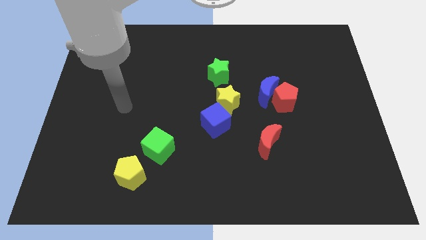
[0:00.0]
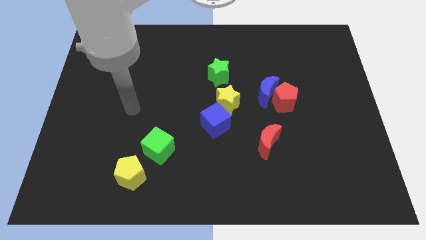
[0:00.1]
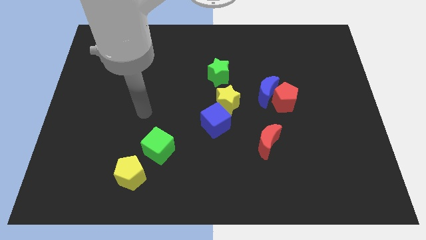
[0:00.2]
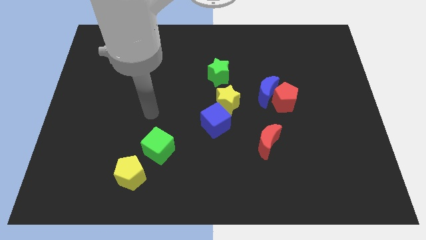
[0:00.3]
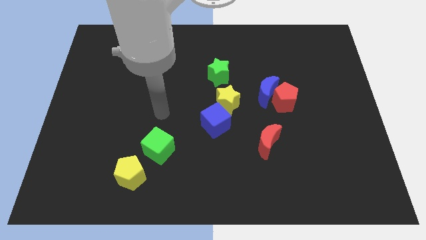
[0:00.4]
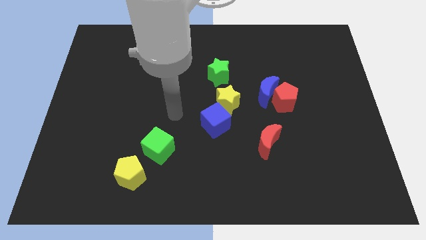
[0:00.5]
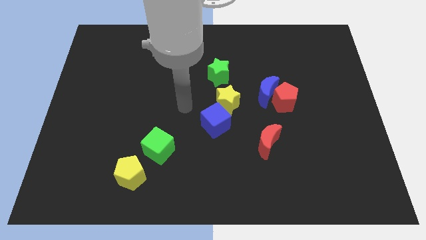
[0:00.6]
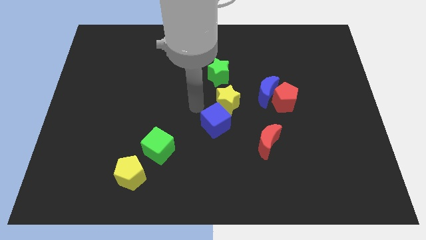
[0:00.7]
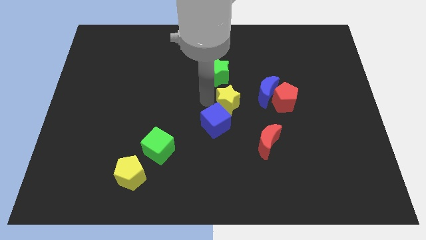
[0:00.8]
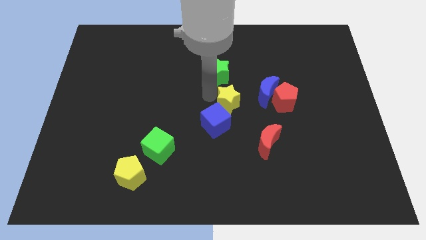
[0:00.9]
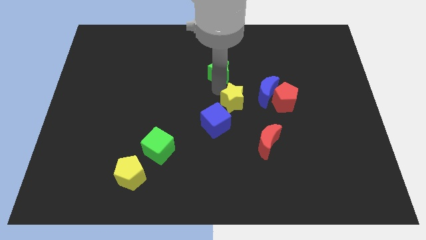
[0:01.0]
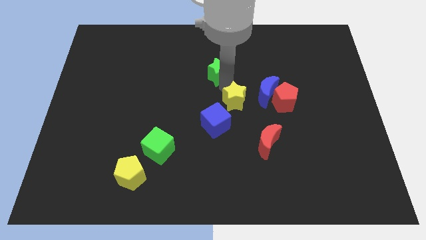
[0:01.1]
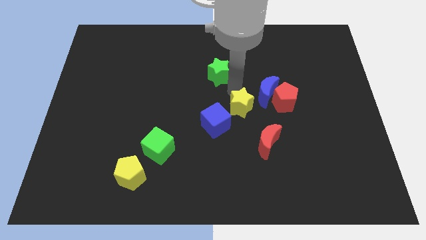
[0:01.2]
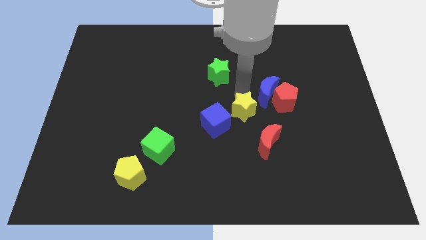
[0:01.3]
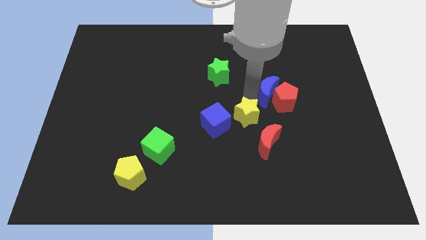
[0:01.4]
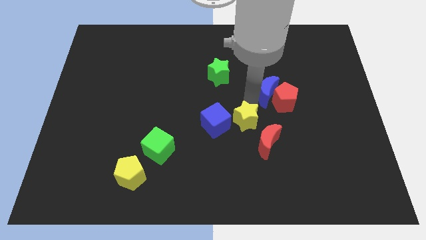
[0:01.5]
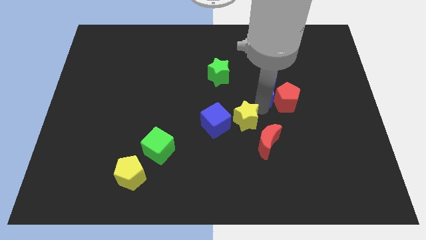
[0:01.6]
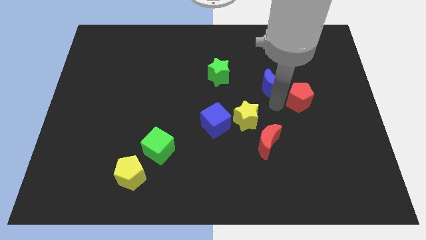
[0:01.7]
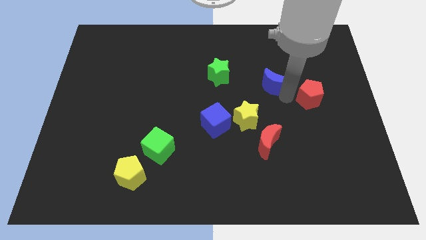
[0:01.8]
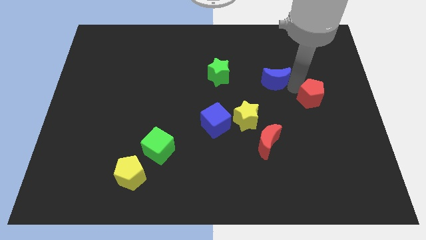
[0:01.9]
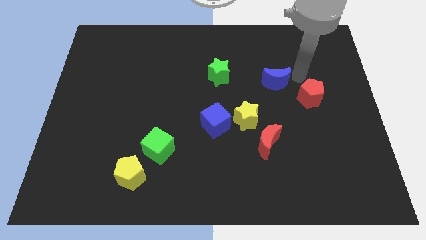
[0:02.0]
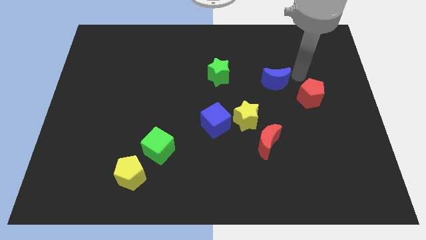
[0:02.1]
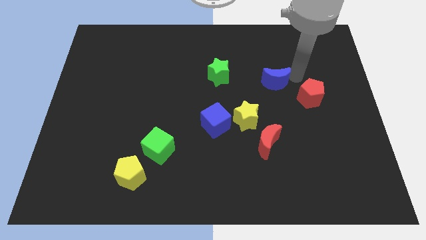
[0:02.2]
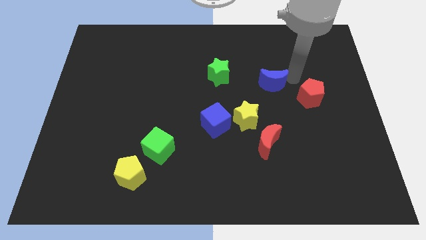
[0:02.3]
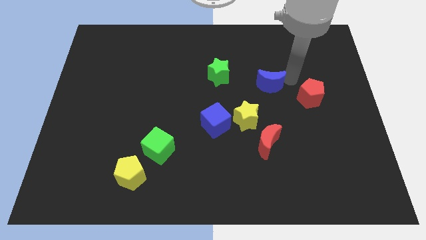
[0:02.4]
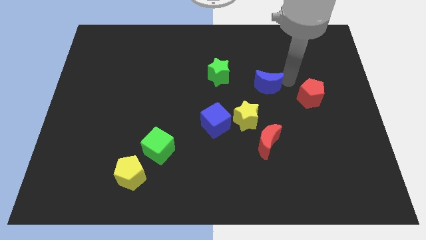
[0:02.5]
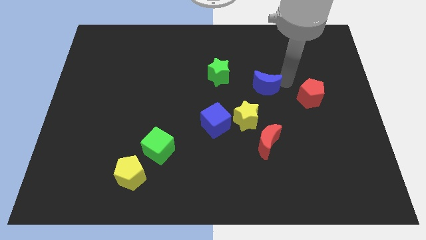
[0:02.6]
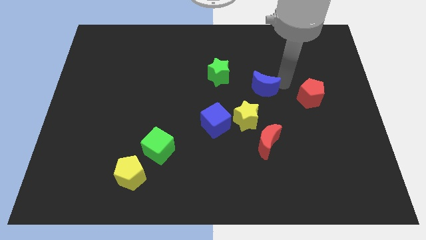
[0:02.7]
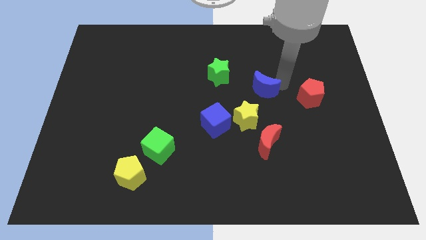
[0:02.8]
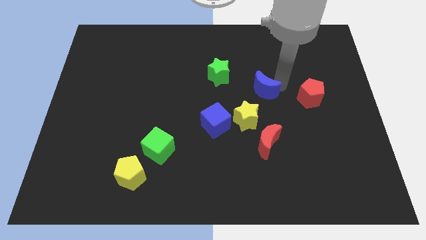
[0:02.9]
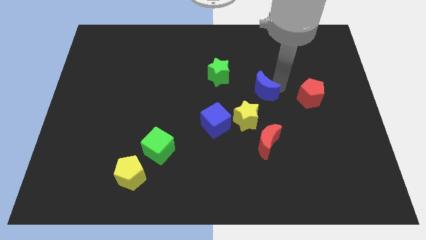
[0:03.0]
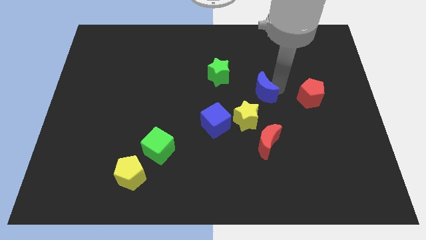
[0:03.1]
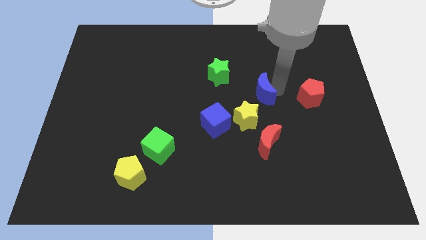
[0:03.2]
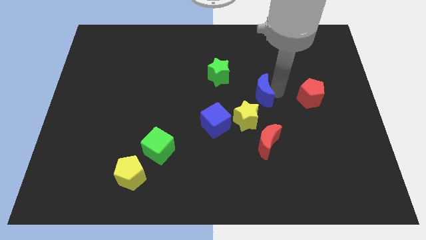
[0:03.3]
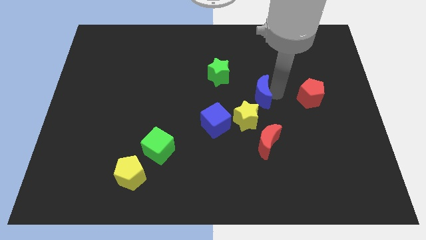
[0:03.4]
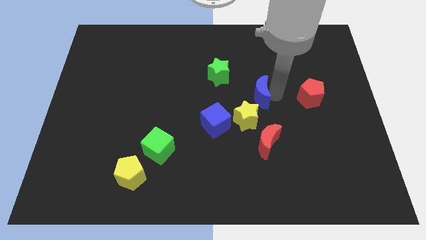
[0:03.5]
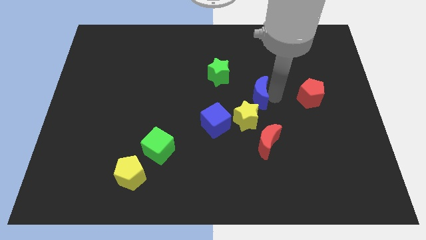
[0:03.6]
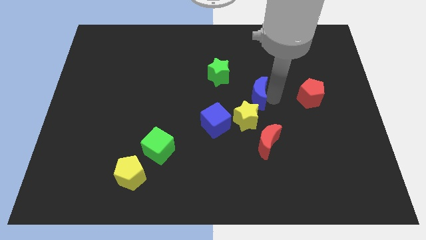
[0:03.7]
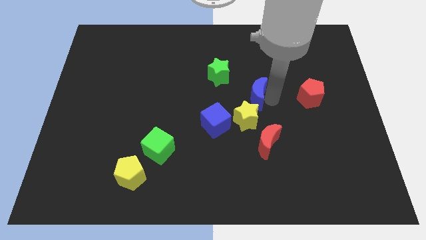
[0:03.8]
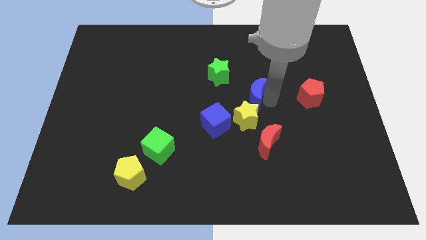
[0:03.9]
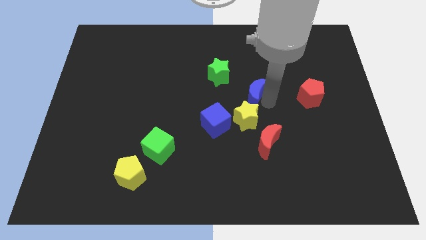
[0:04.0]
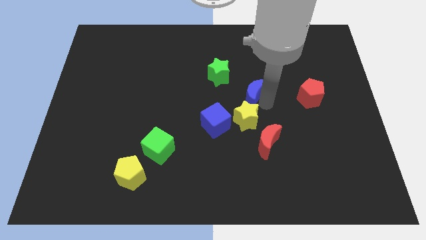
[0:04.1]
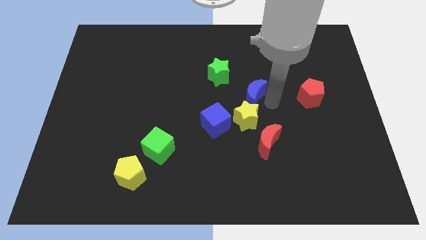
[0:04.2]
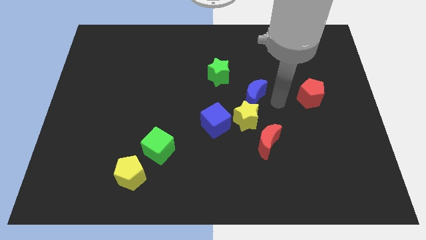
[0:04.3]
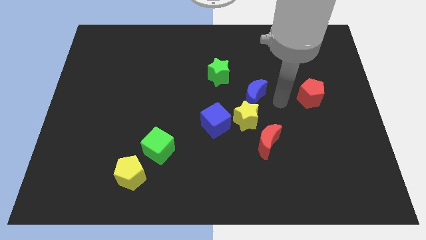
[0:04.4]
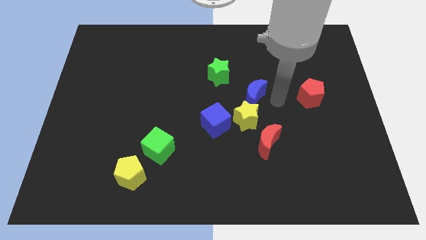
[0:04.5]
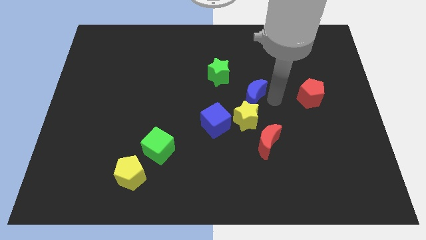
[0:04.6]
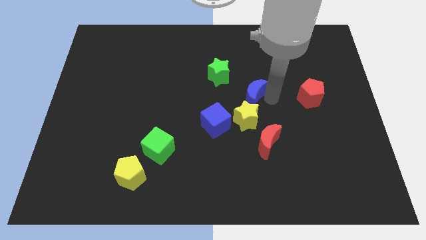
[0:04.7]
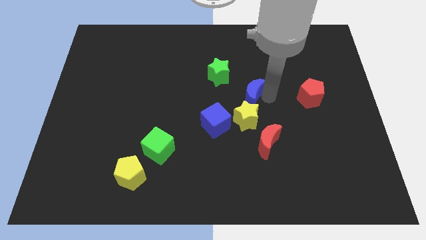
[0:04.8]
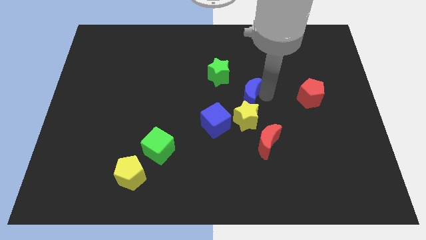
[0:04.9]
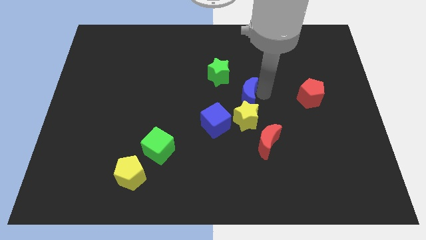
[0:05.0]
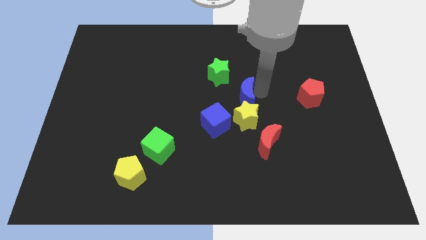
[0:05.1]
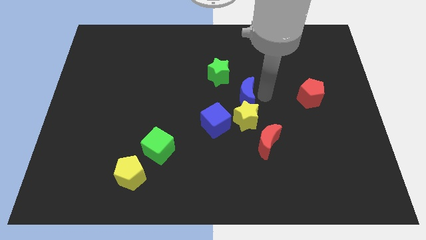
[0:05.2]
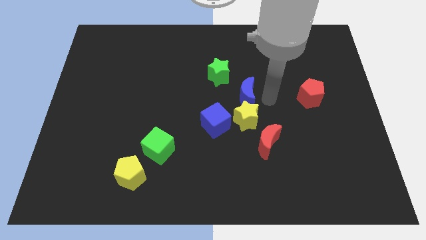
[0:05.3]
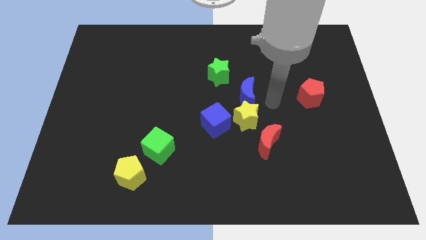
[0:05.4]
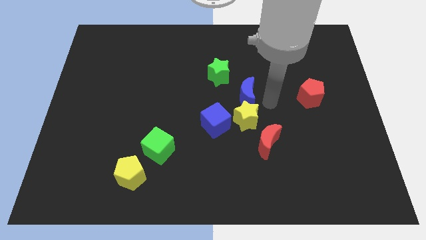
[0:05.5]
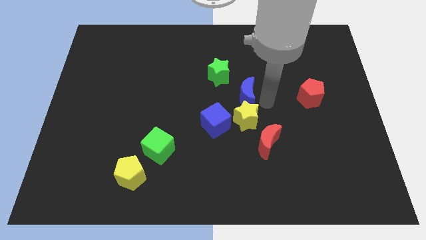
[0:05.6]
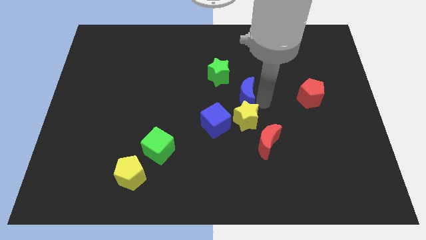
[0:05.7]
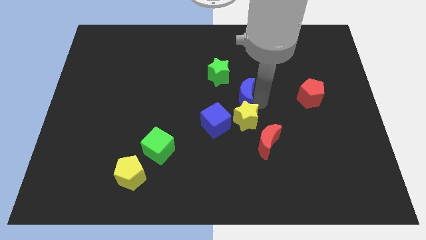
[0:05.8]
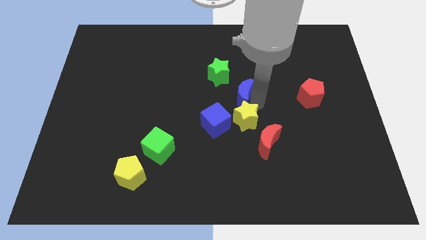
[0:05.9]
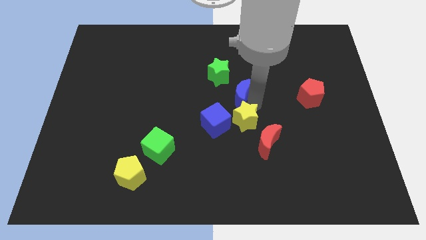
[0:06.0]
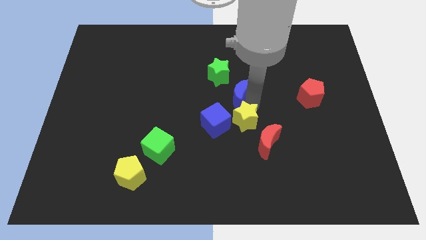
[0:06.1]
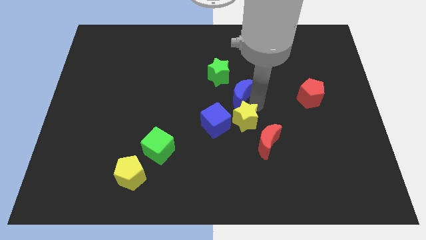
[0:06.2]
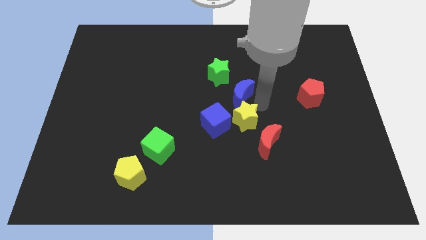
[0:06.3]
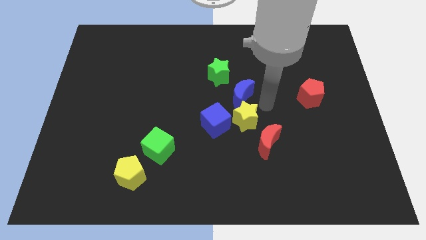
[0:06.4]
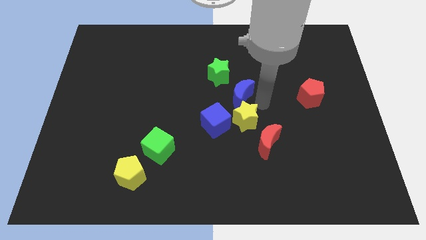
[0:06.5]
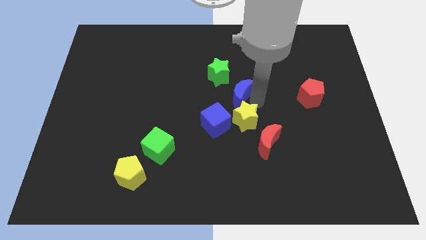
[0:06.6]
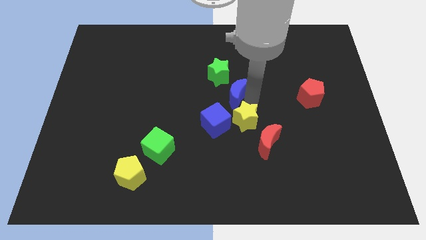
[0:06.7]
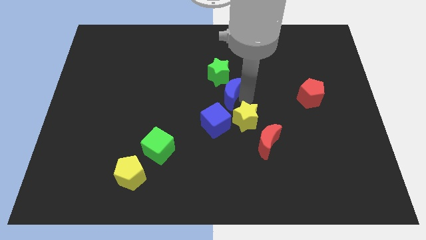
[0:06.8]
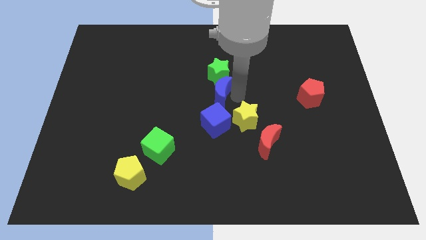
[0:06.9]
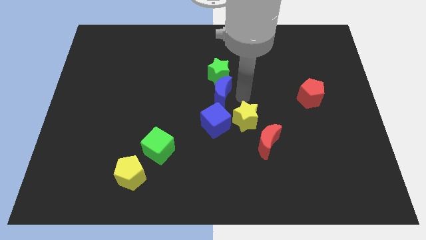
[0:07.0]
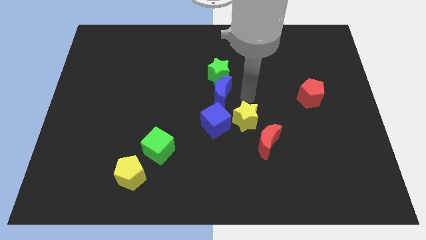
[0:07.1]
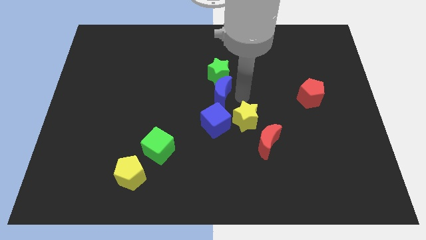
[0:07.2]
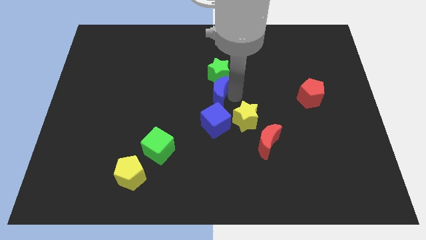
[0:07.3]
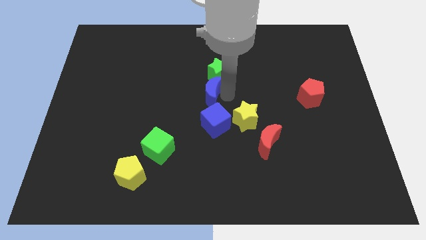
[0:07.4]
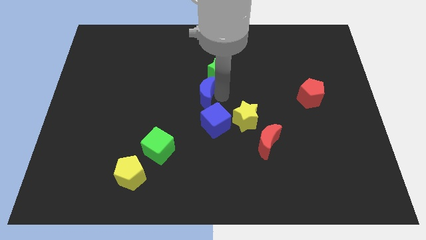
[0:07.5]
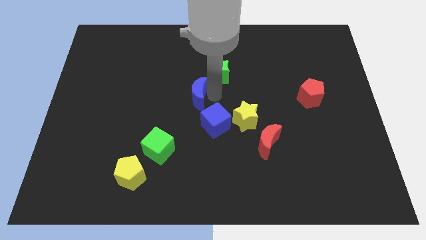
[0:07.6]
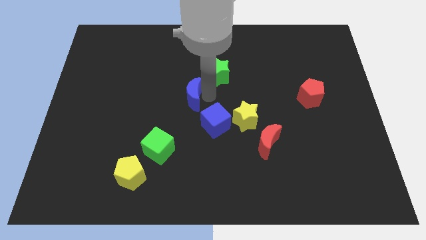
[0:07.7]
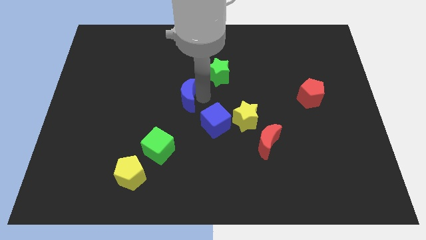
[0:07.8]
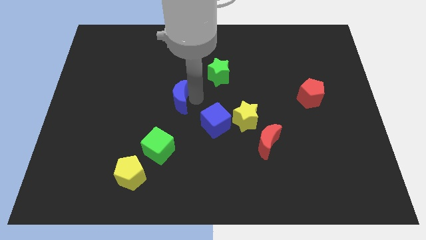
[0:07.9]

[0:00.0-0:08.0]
move the blue moon left
